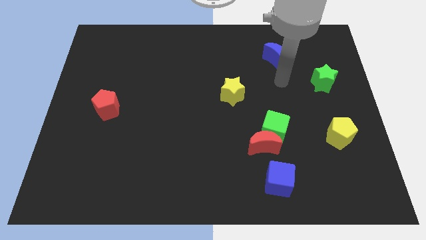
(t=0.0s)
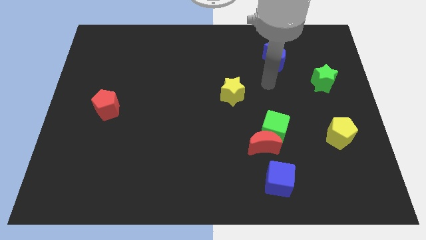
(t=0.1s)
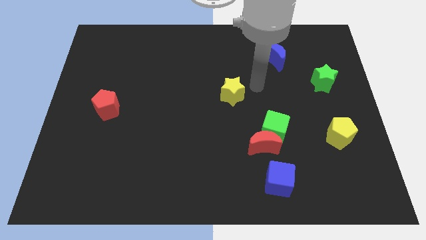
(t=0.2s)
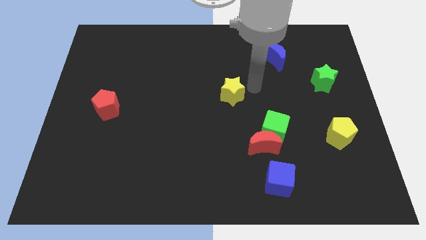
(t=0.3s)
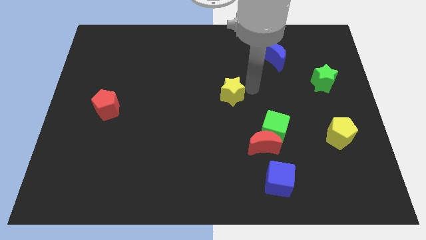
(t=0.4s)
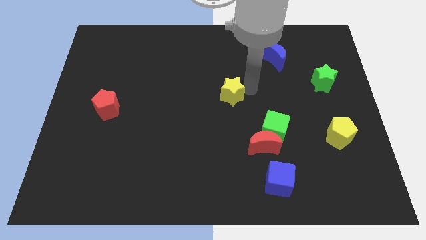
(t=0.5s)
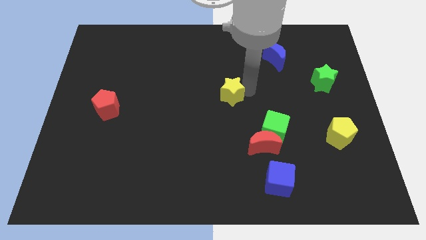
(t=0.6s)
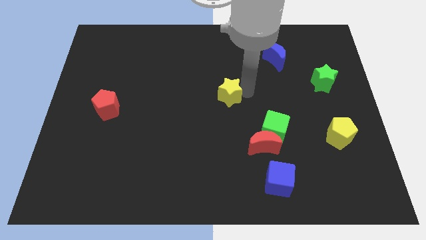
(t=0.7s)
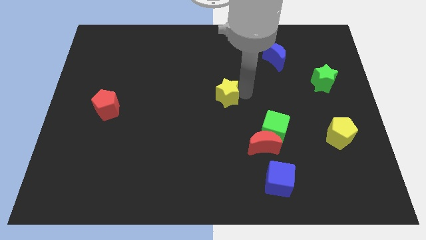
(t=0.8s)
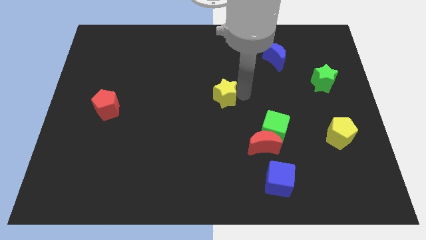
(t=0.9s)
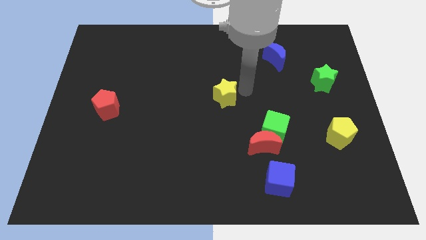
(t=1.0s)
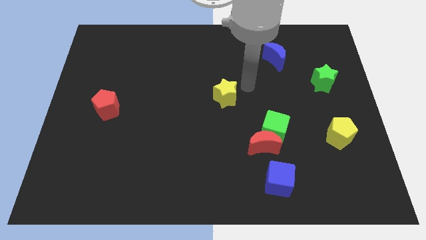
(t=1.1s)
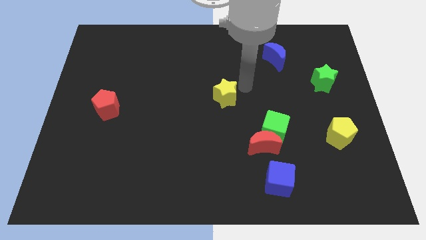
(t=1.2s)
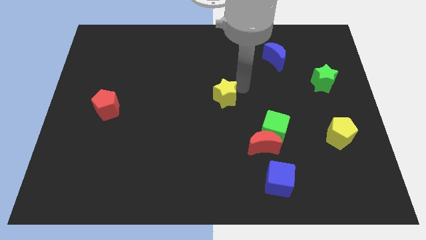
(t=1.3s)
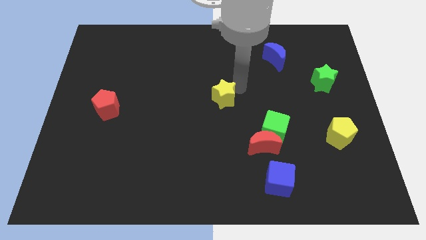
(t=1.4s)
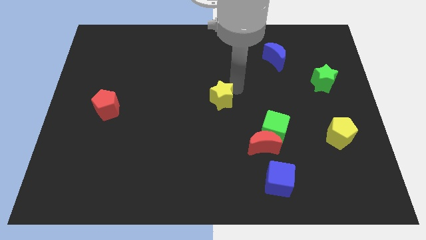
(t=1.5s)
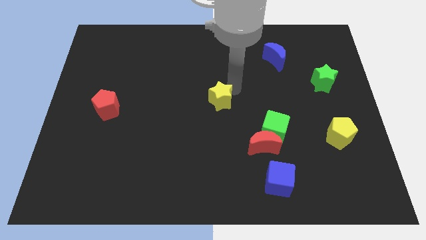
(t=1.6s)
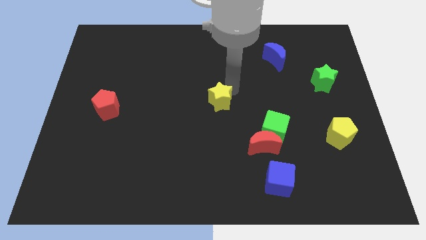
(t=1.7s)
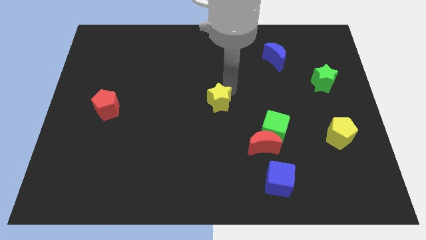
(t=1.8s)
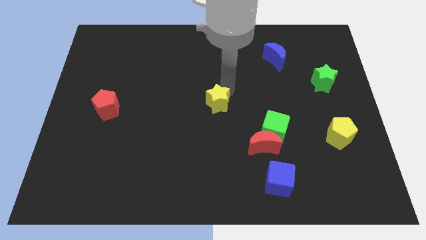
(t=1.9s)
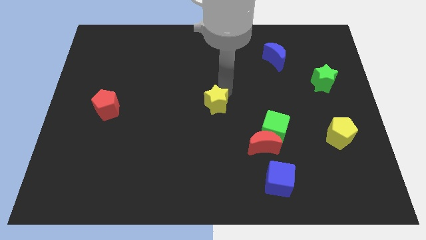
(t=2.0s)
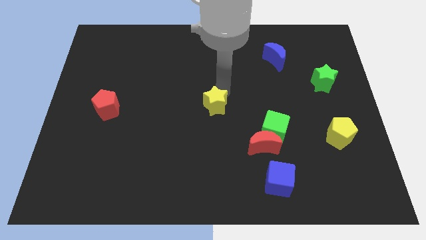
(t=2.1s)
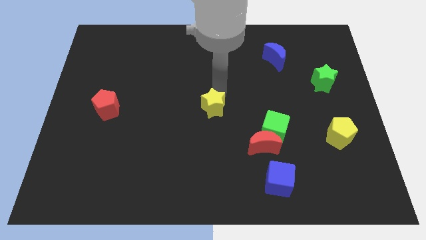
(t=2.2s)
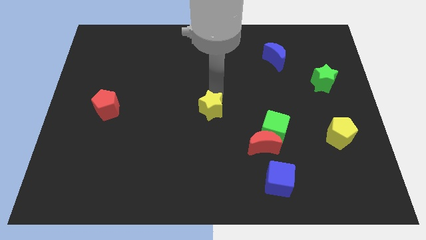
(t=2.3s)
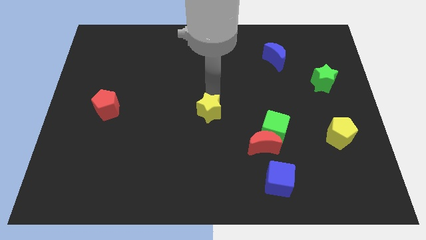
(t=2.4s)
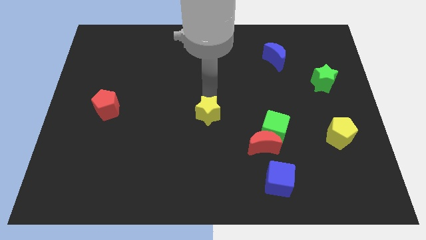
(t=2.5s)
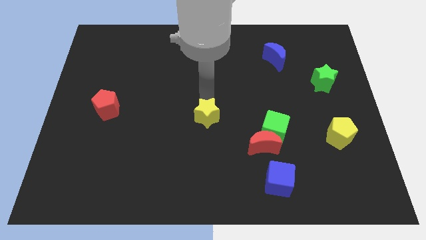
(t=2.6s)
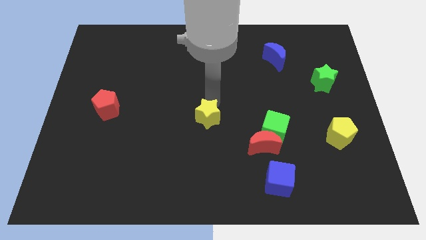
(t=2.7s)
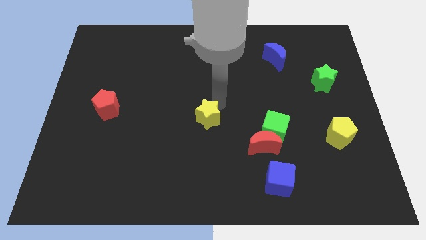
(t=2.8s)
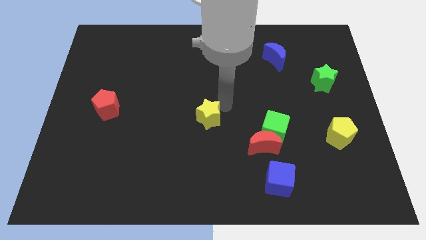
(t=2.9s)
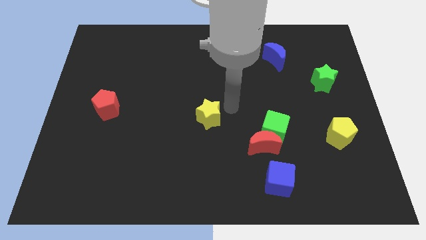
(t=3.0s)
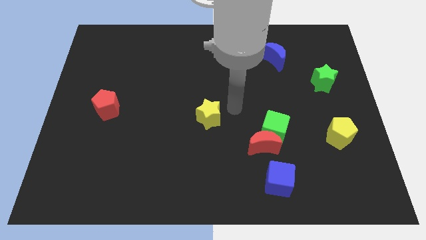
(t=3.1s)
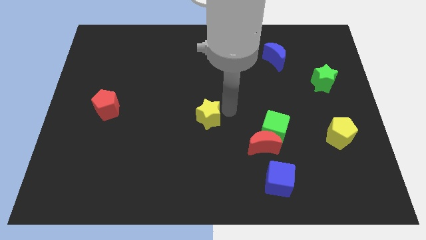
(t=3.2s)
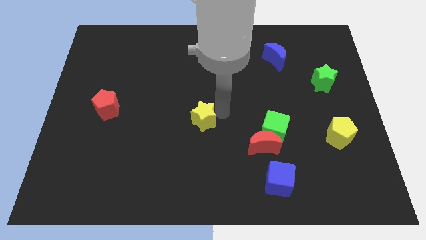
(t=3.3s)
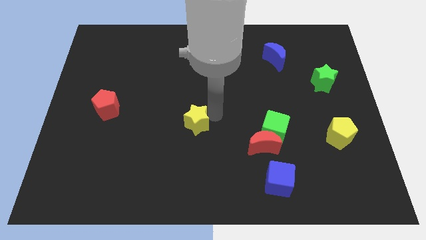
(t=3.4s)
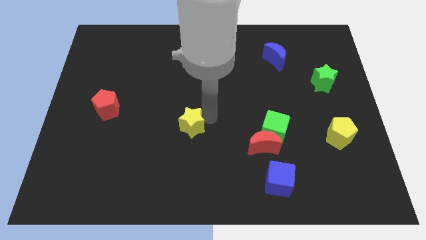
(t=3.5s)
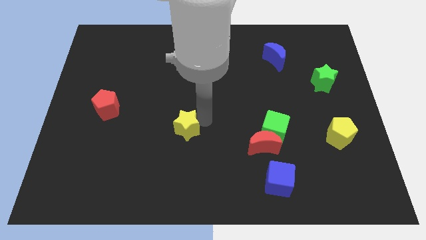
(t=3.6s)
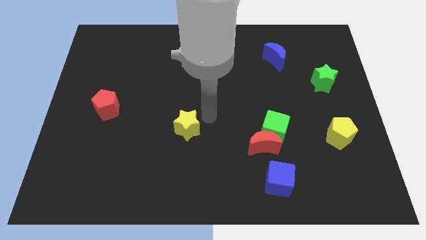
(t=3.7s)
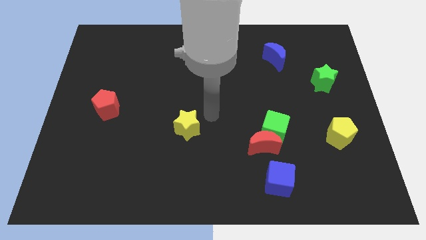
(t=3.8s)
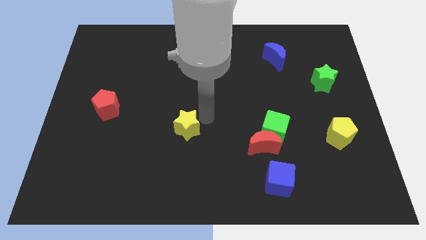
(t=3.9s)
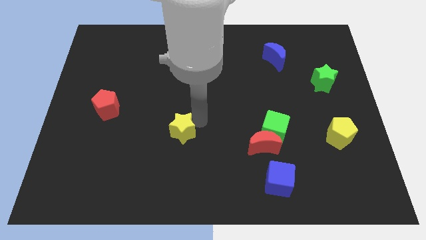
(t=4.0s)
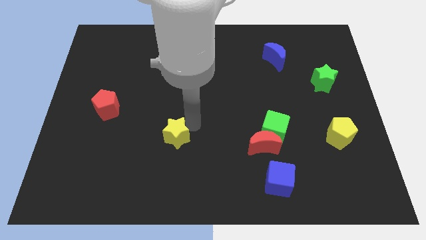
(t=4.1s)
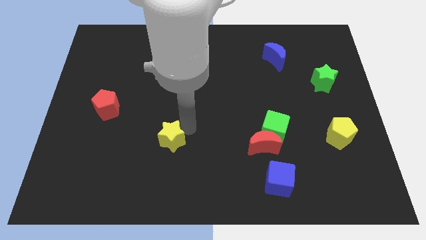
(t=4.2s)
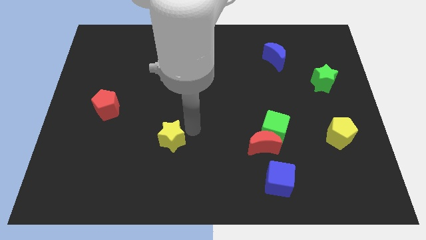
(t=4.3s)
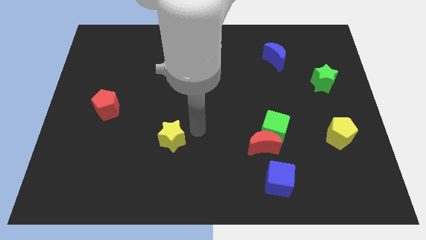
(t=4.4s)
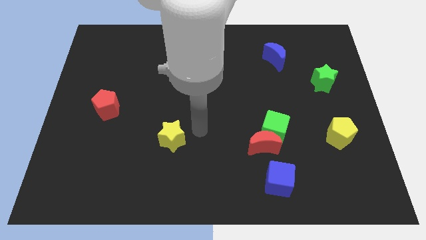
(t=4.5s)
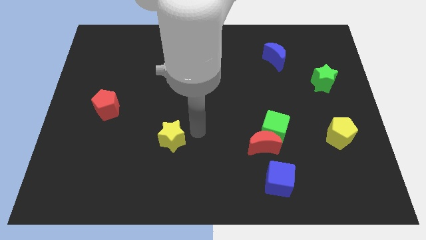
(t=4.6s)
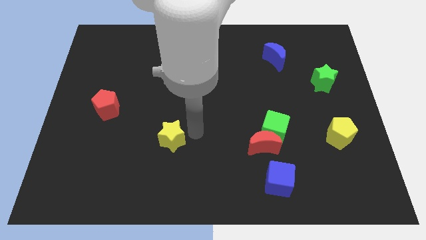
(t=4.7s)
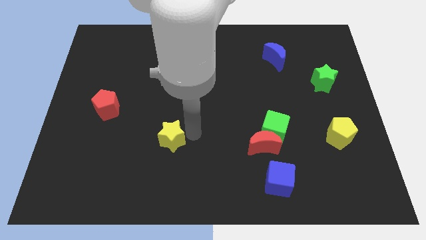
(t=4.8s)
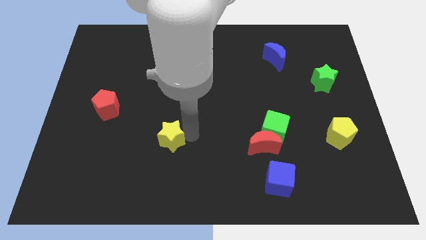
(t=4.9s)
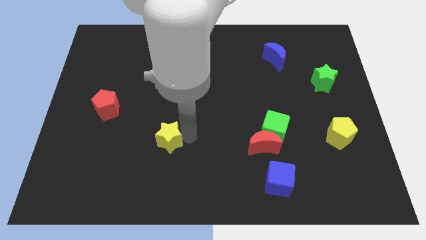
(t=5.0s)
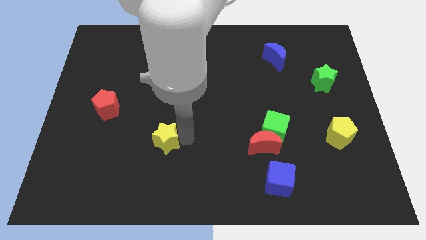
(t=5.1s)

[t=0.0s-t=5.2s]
move the yellow star down and left diagonally

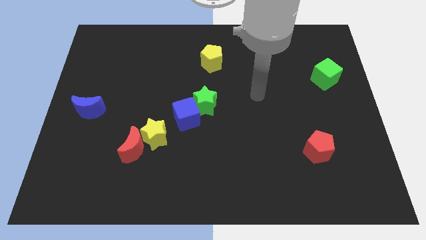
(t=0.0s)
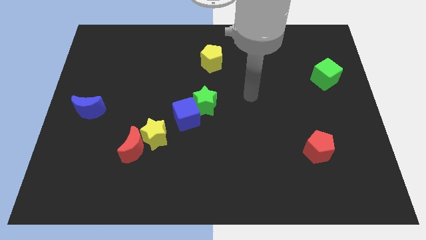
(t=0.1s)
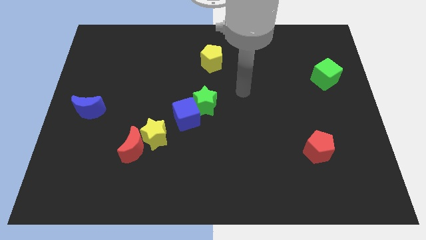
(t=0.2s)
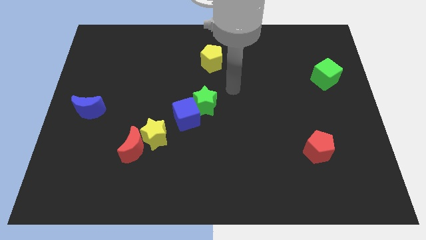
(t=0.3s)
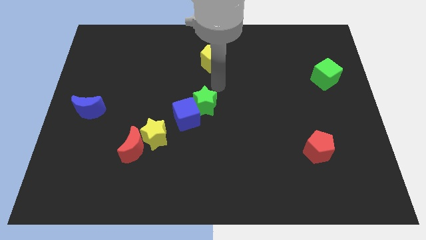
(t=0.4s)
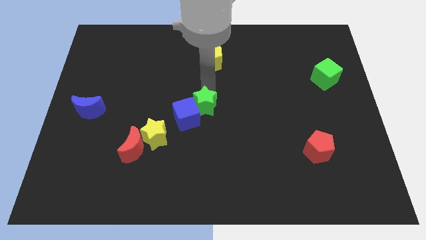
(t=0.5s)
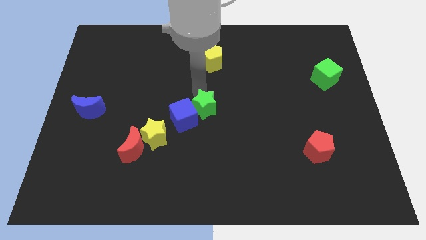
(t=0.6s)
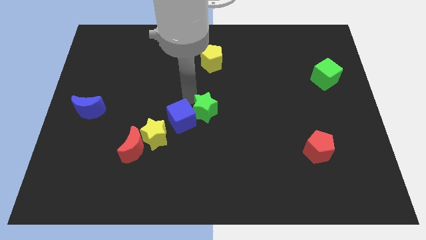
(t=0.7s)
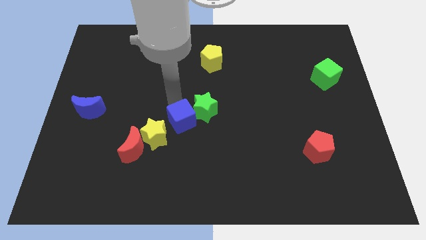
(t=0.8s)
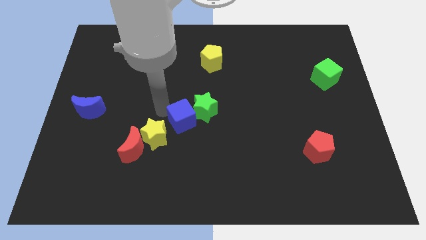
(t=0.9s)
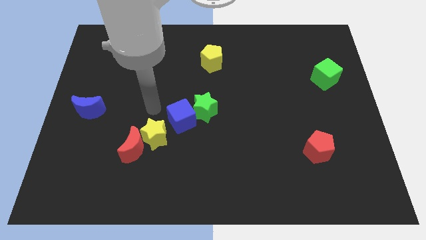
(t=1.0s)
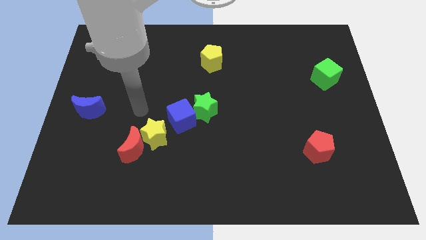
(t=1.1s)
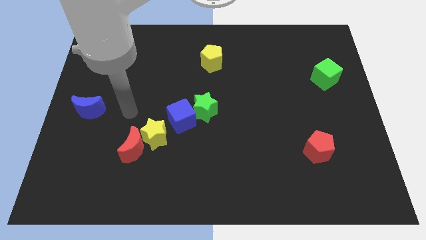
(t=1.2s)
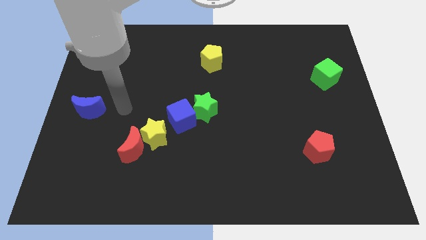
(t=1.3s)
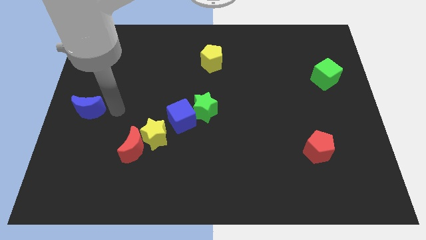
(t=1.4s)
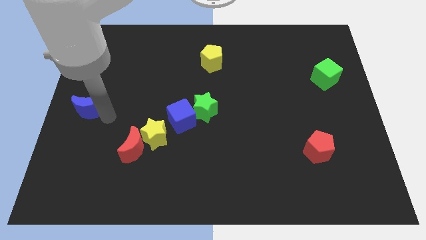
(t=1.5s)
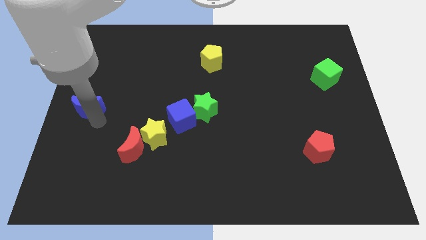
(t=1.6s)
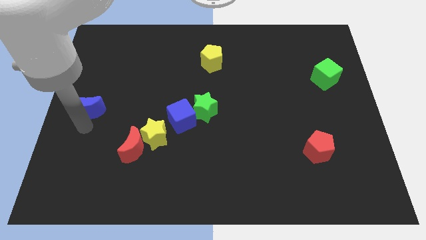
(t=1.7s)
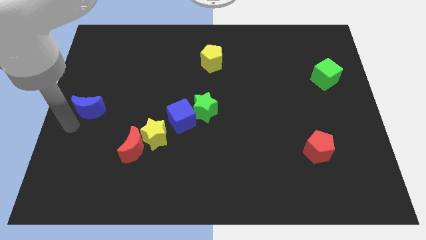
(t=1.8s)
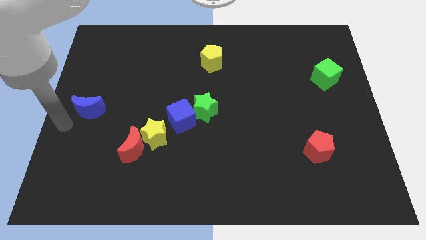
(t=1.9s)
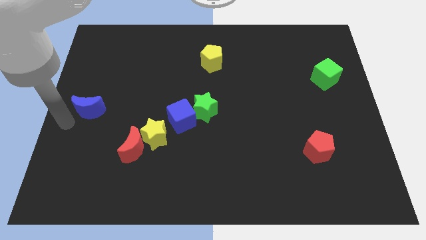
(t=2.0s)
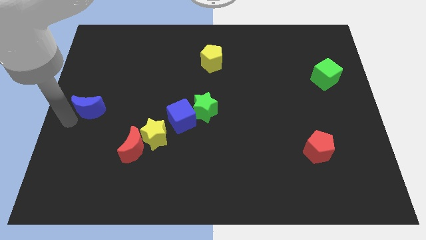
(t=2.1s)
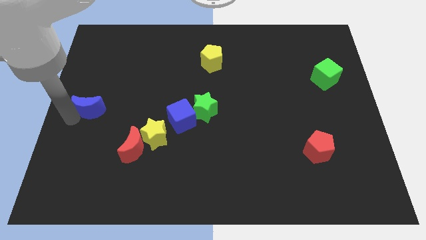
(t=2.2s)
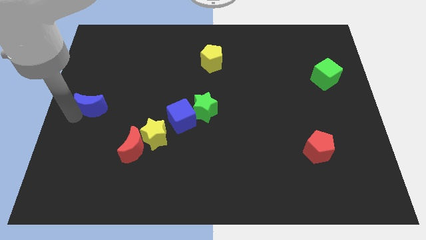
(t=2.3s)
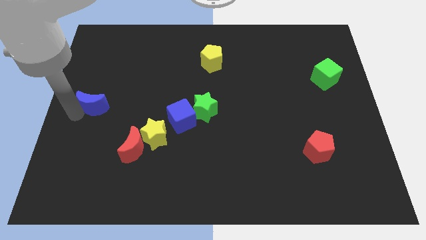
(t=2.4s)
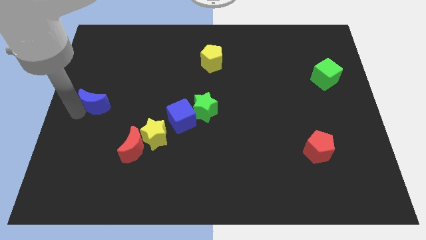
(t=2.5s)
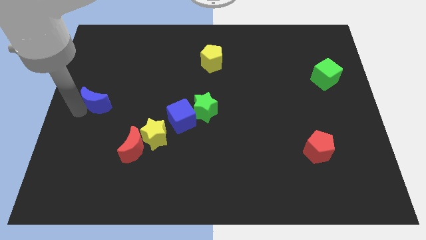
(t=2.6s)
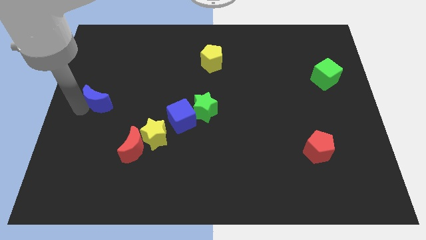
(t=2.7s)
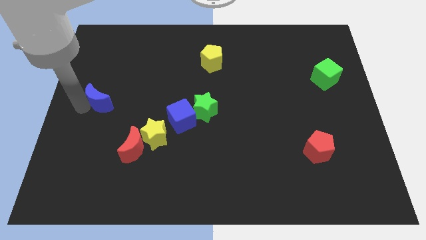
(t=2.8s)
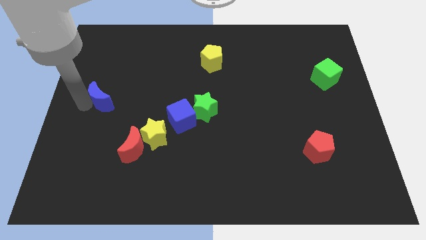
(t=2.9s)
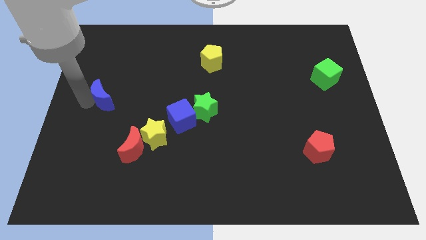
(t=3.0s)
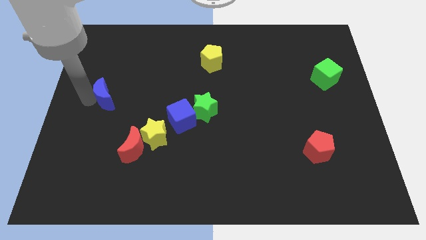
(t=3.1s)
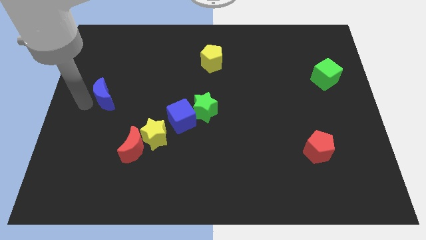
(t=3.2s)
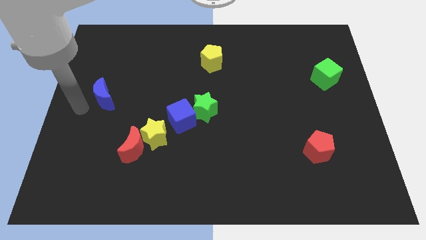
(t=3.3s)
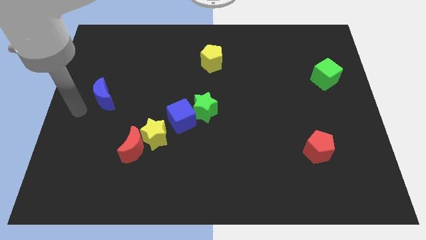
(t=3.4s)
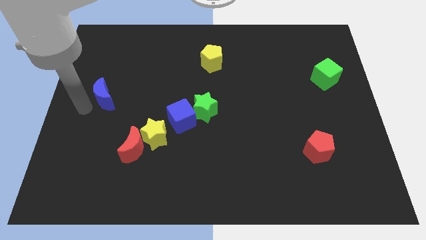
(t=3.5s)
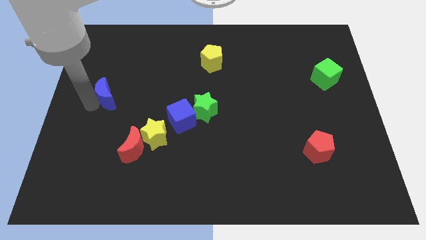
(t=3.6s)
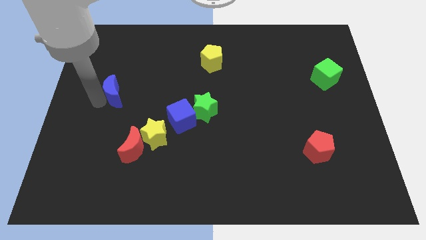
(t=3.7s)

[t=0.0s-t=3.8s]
slightly move the blue moon upwards and then right
